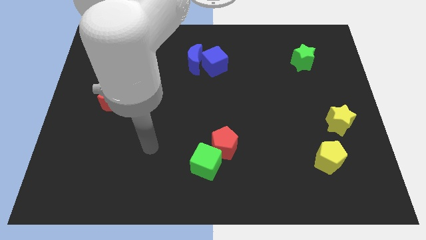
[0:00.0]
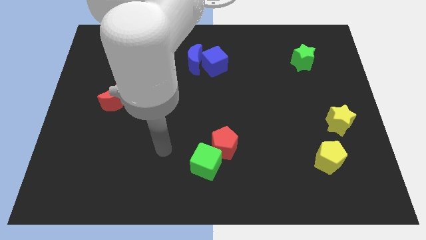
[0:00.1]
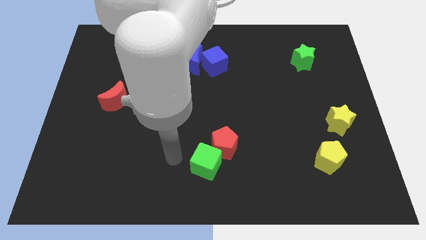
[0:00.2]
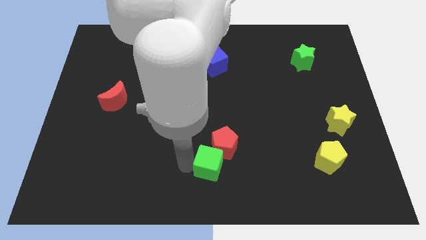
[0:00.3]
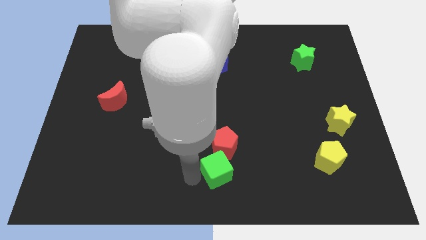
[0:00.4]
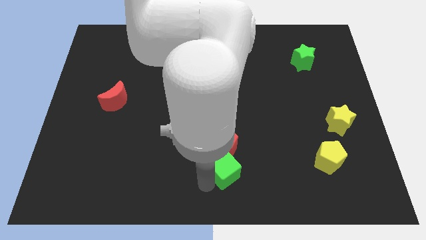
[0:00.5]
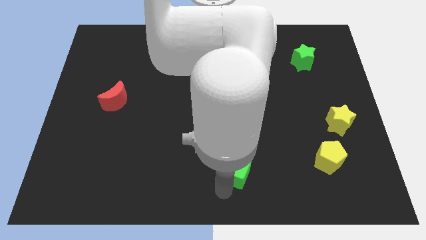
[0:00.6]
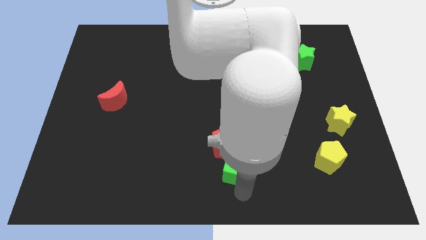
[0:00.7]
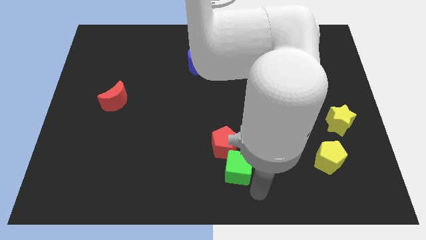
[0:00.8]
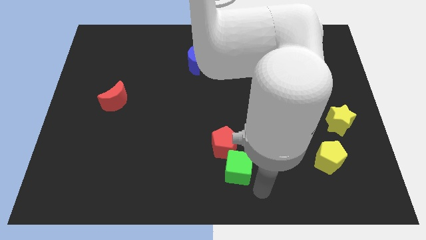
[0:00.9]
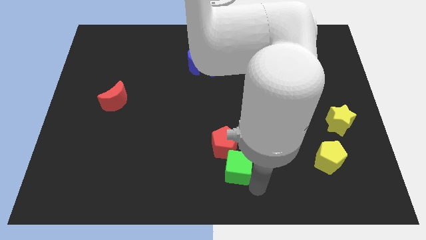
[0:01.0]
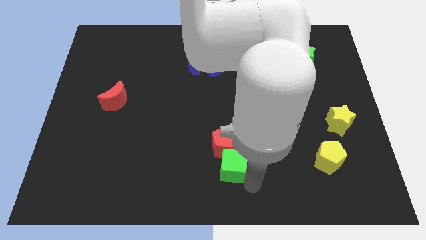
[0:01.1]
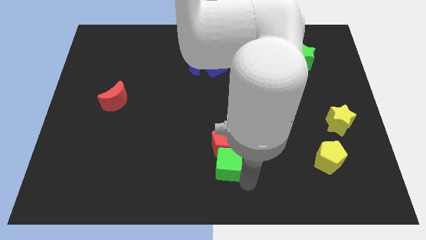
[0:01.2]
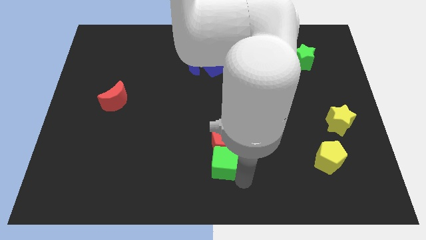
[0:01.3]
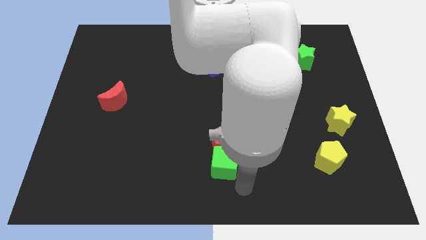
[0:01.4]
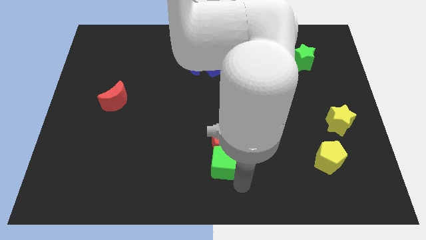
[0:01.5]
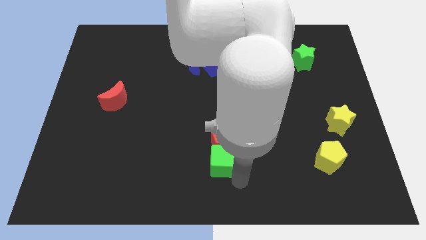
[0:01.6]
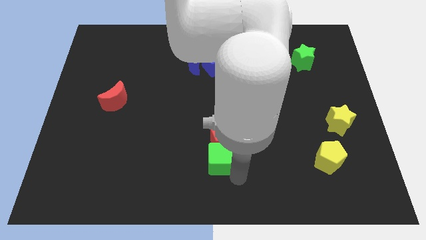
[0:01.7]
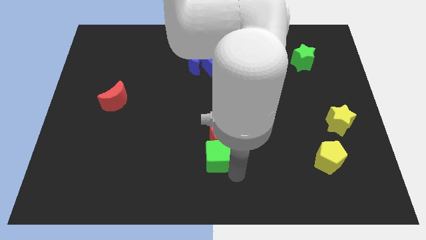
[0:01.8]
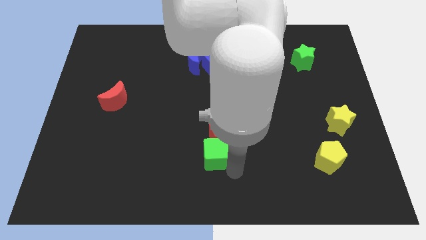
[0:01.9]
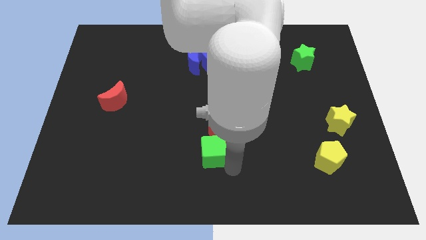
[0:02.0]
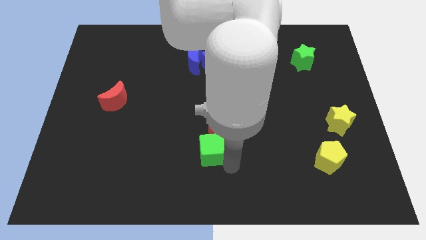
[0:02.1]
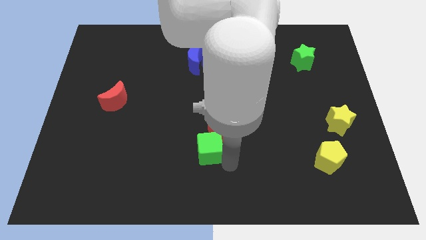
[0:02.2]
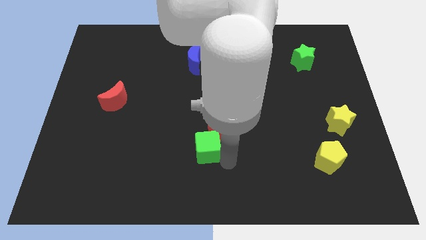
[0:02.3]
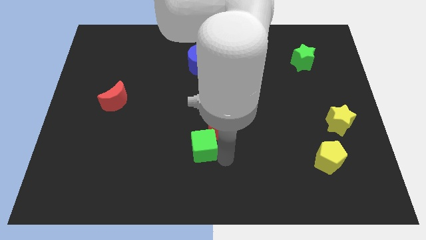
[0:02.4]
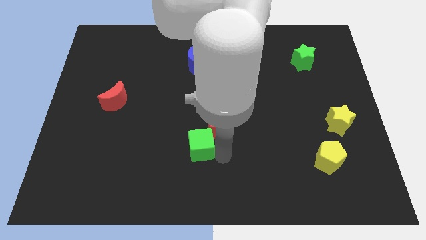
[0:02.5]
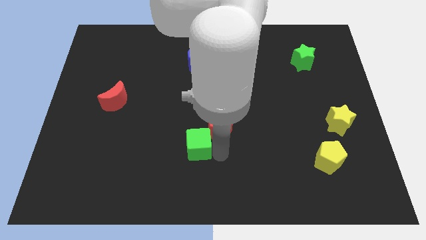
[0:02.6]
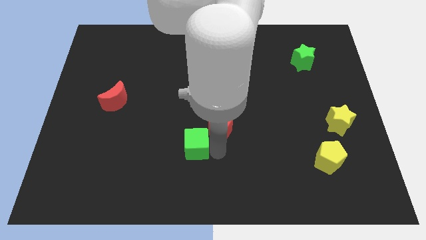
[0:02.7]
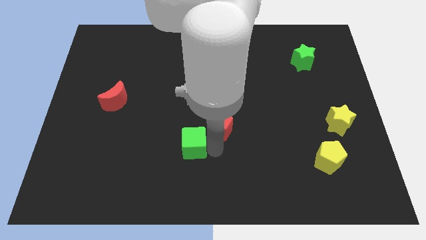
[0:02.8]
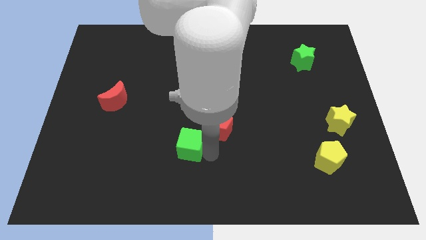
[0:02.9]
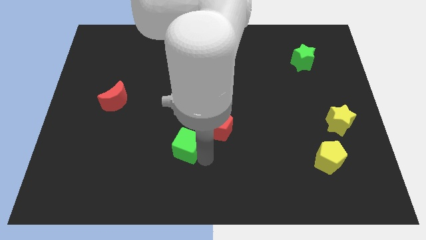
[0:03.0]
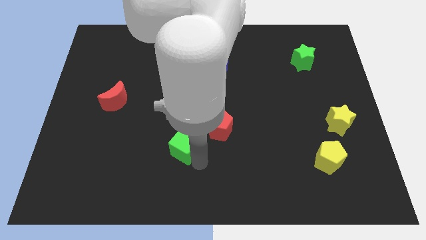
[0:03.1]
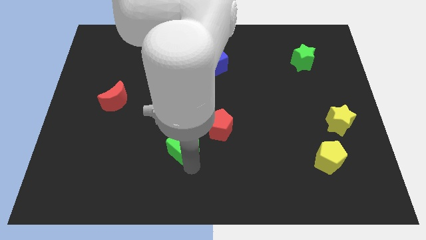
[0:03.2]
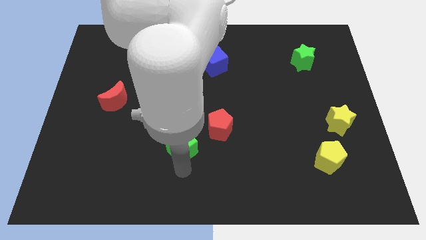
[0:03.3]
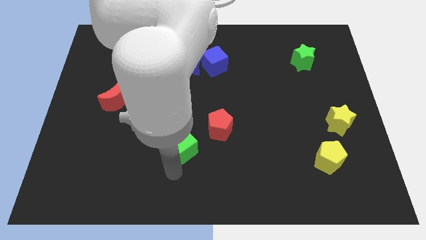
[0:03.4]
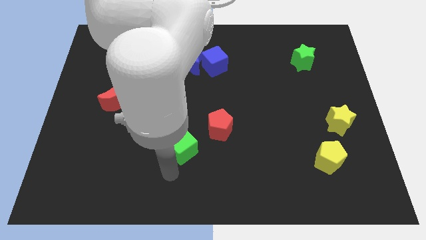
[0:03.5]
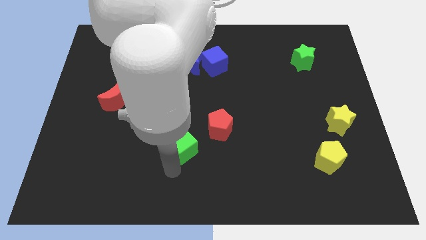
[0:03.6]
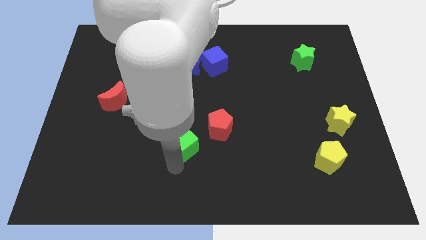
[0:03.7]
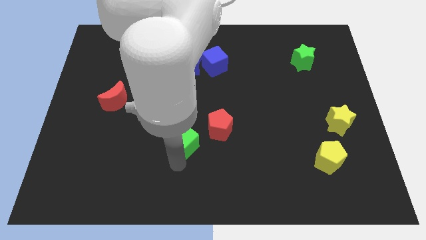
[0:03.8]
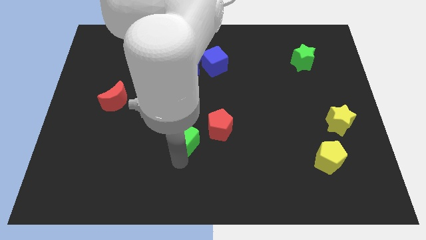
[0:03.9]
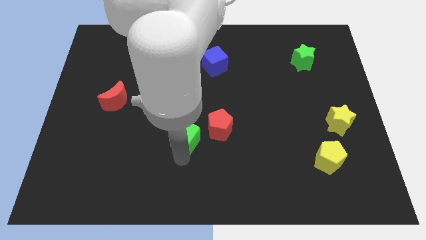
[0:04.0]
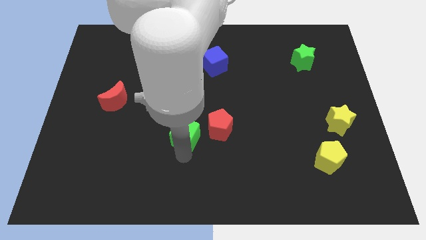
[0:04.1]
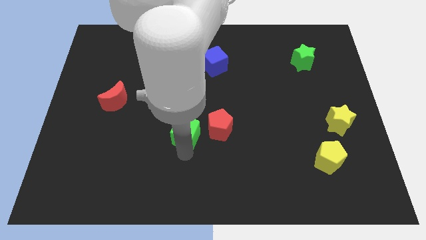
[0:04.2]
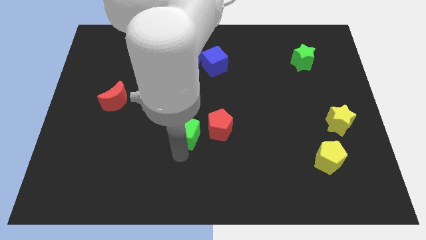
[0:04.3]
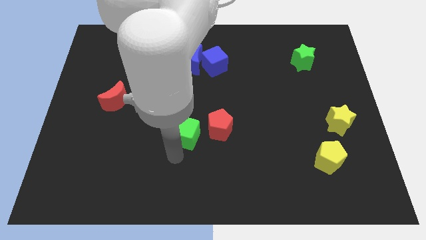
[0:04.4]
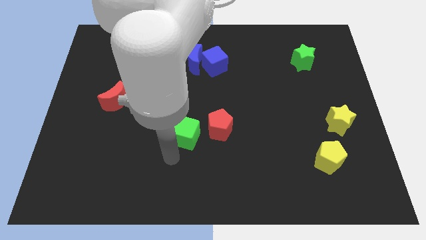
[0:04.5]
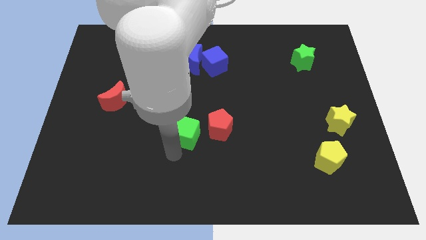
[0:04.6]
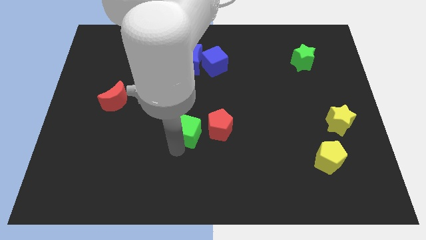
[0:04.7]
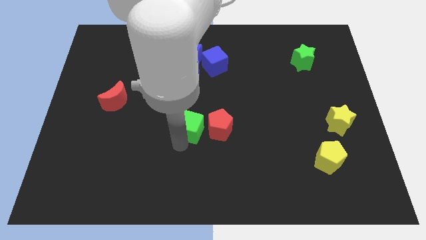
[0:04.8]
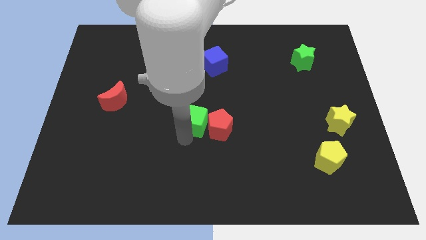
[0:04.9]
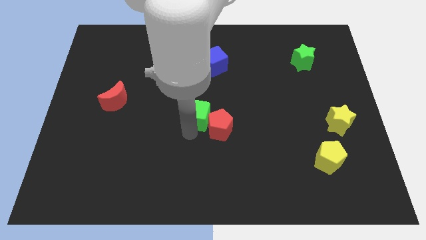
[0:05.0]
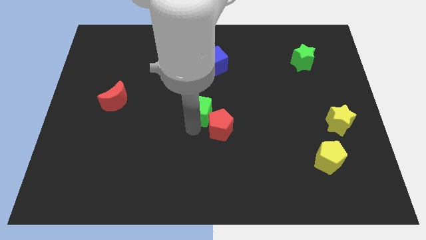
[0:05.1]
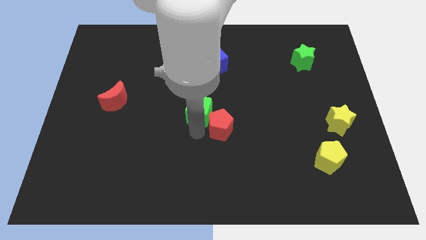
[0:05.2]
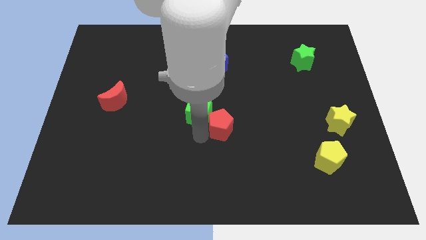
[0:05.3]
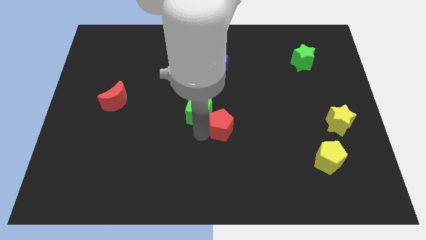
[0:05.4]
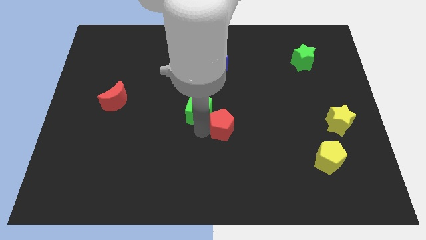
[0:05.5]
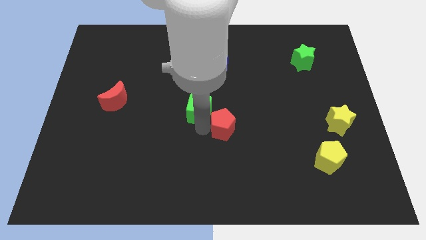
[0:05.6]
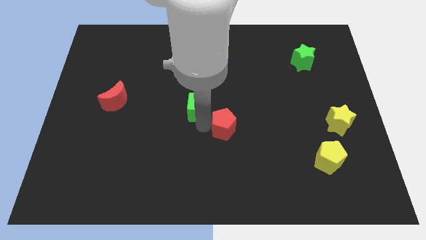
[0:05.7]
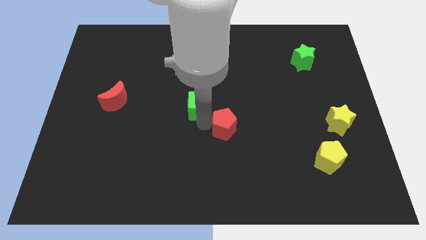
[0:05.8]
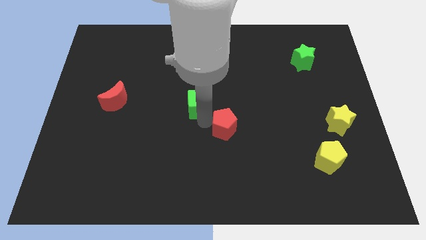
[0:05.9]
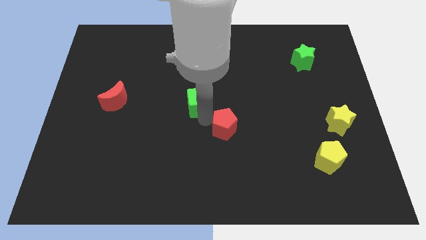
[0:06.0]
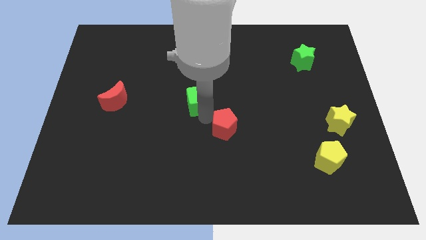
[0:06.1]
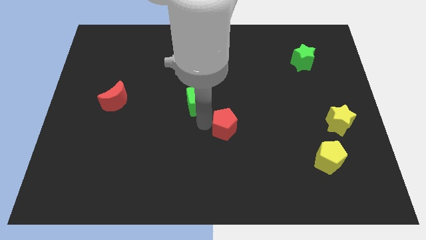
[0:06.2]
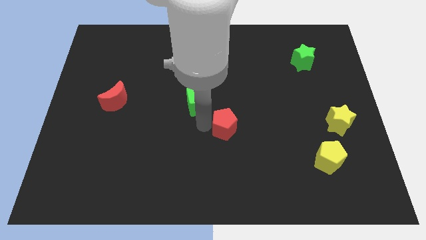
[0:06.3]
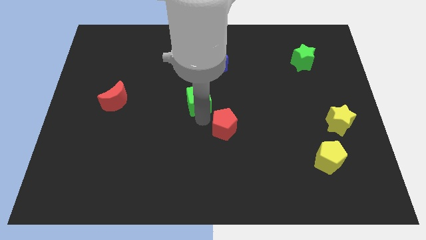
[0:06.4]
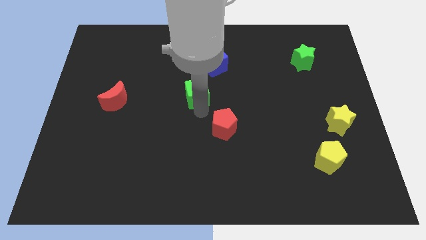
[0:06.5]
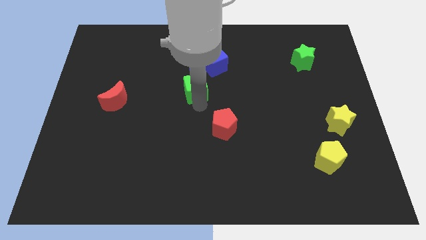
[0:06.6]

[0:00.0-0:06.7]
put the green cube to the bottom left side of the blue cube

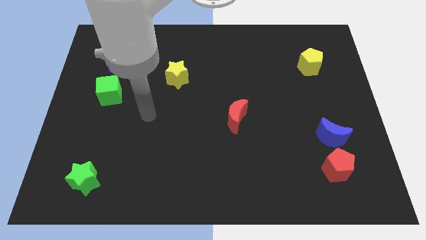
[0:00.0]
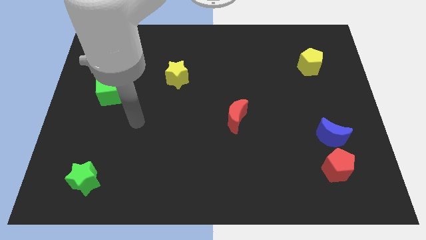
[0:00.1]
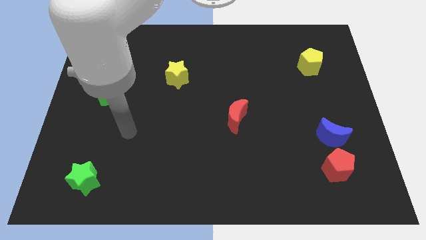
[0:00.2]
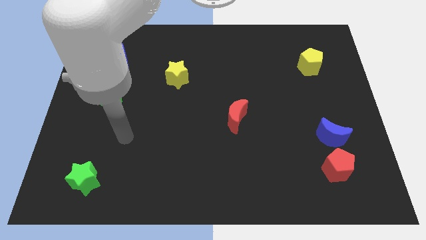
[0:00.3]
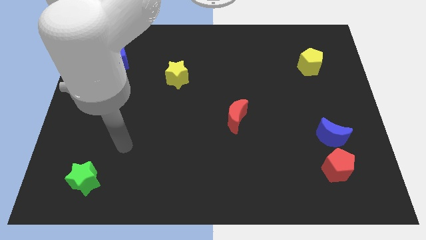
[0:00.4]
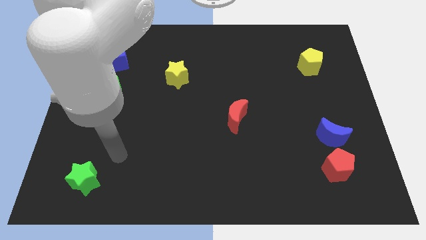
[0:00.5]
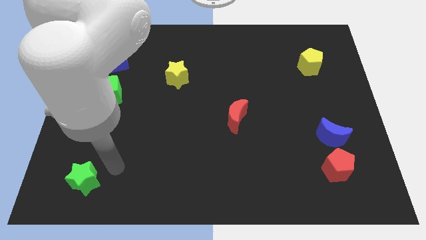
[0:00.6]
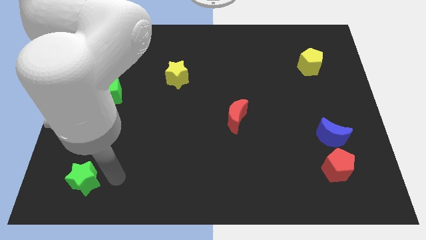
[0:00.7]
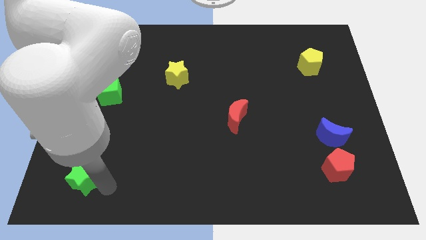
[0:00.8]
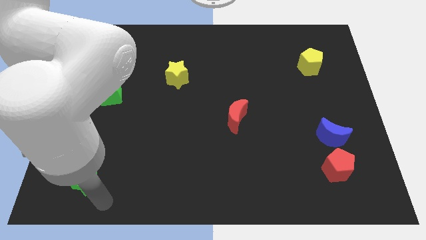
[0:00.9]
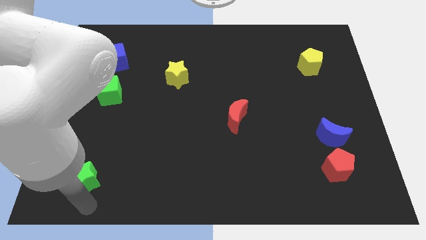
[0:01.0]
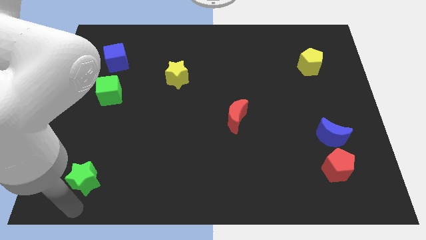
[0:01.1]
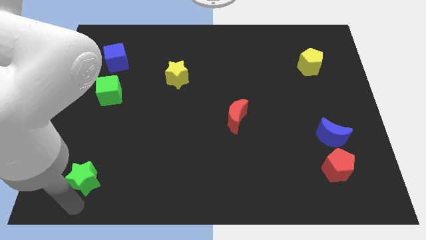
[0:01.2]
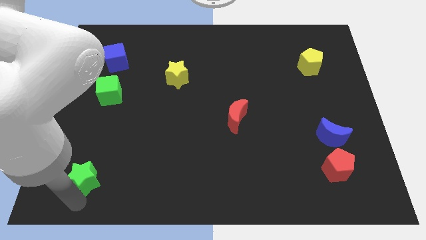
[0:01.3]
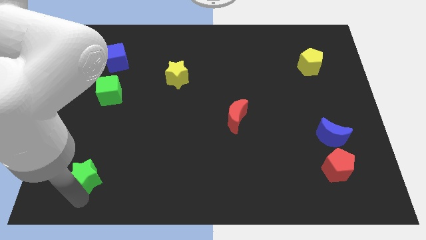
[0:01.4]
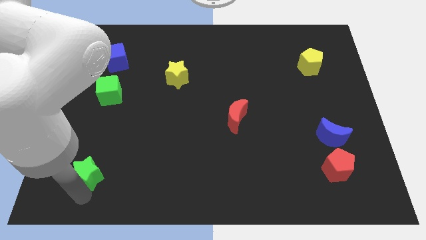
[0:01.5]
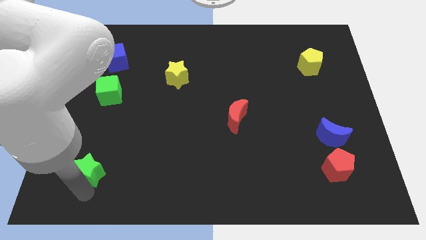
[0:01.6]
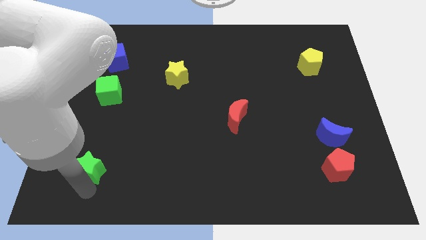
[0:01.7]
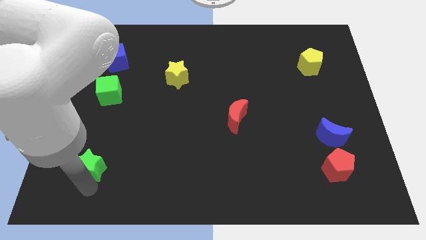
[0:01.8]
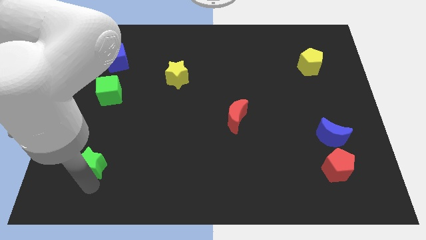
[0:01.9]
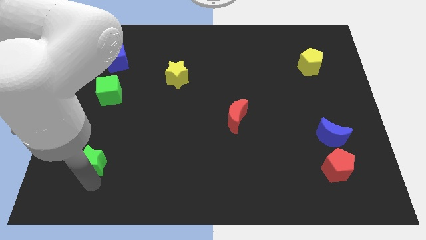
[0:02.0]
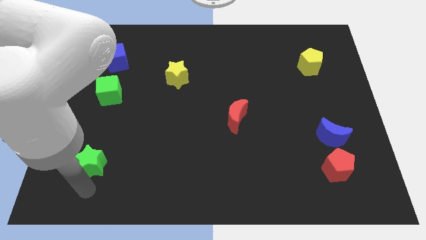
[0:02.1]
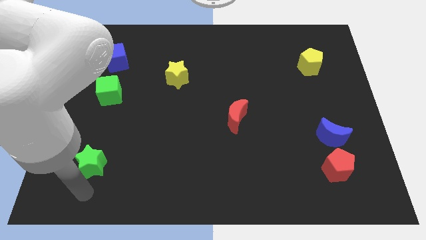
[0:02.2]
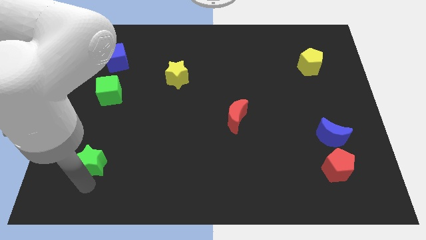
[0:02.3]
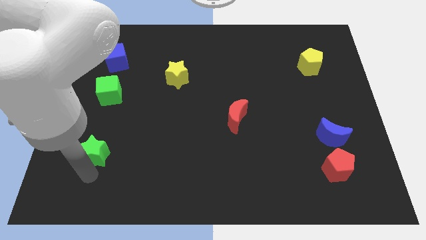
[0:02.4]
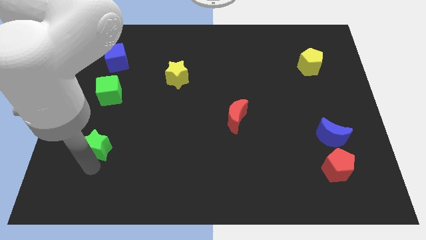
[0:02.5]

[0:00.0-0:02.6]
slide the green star to the bottom of the green cube
